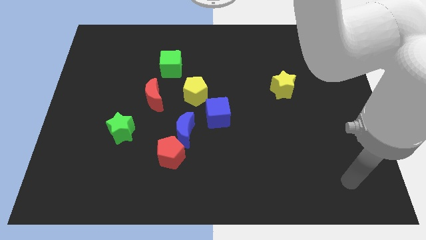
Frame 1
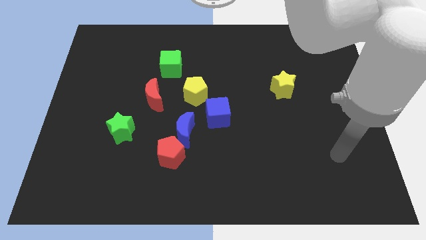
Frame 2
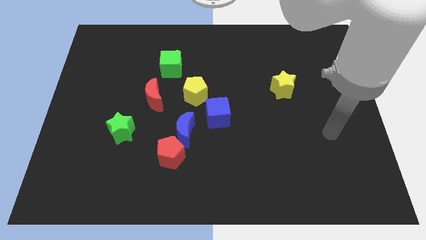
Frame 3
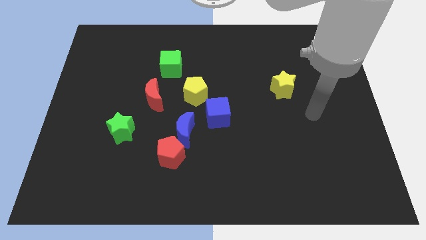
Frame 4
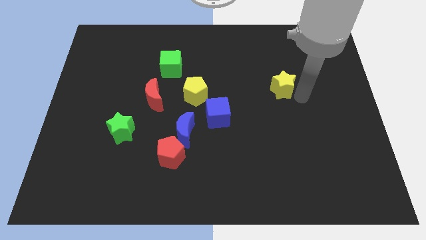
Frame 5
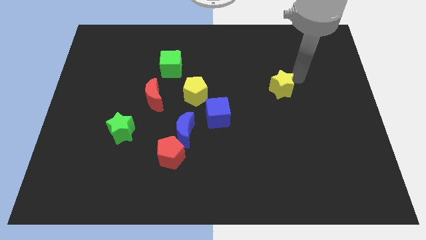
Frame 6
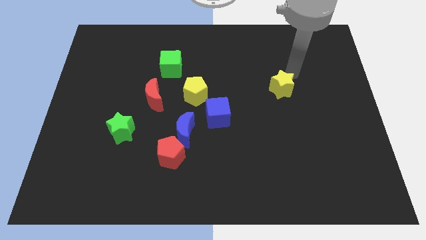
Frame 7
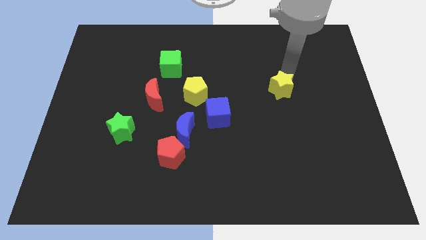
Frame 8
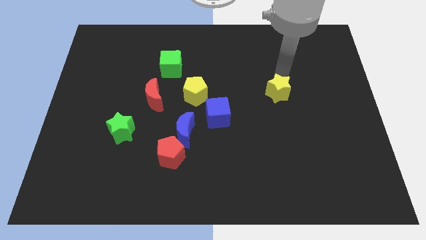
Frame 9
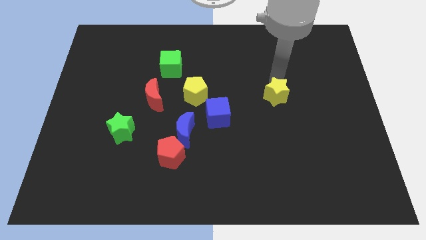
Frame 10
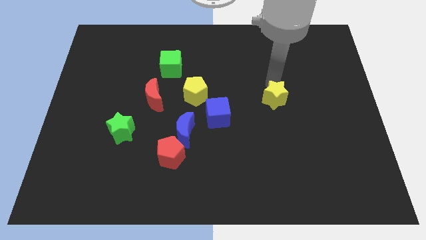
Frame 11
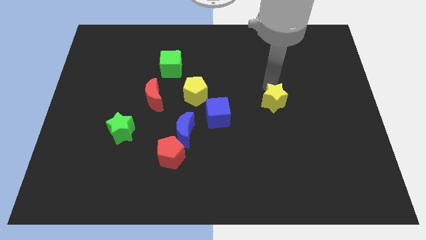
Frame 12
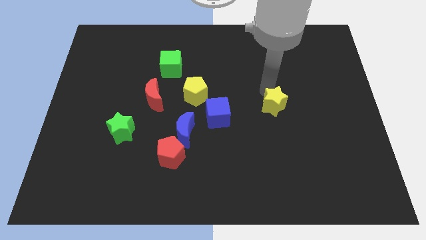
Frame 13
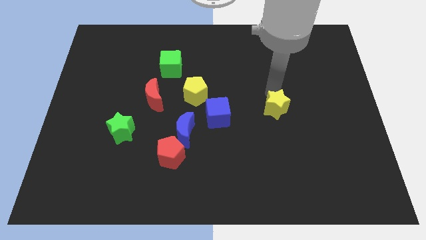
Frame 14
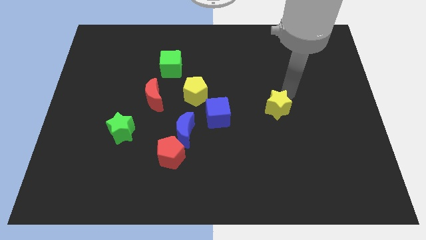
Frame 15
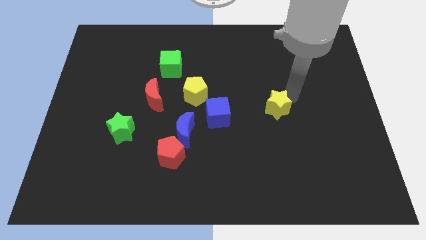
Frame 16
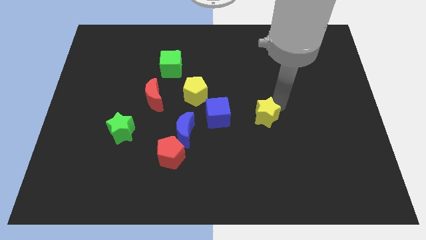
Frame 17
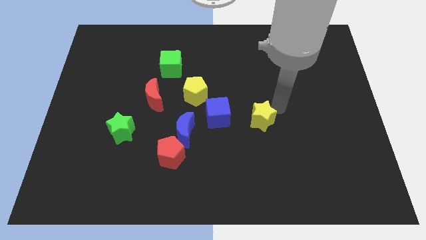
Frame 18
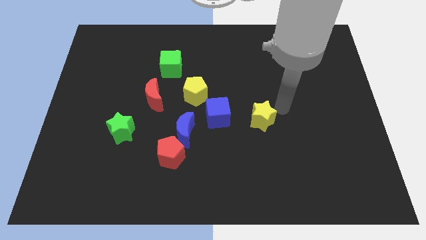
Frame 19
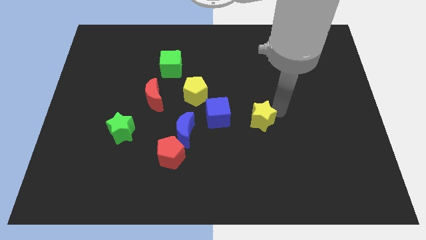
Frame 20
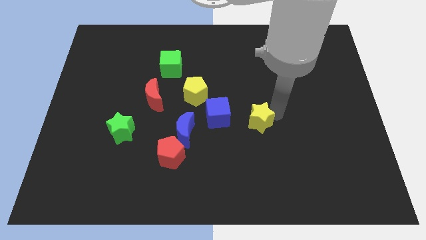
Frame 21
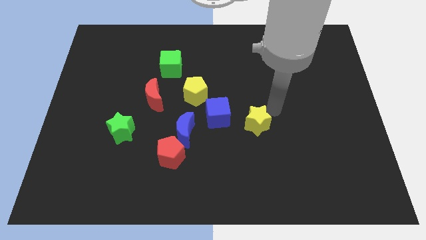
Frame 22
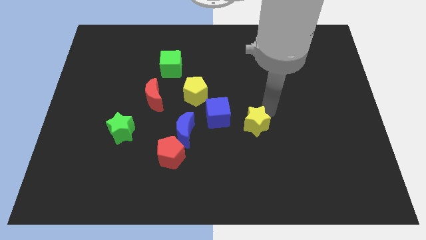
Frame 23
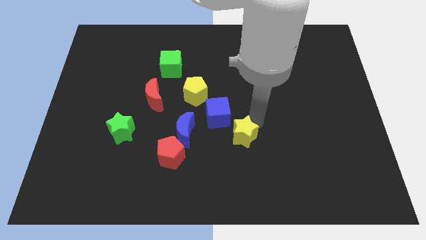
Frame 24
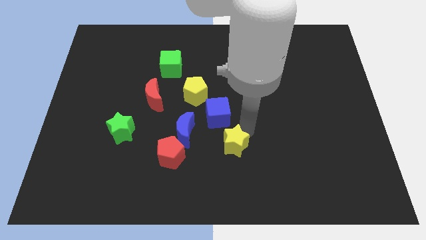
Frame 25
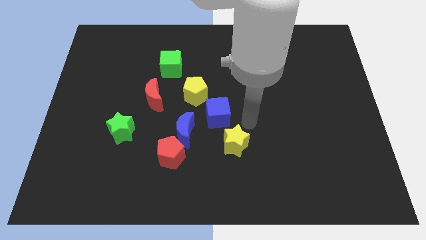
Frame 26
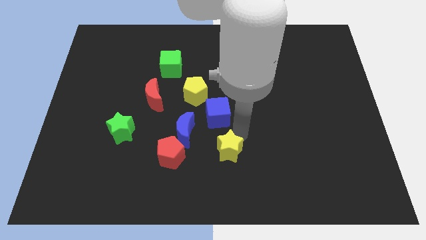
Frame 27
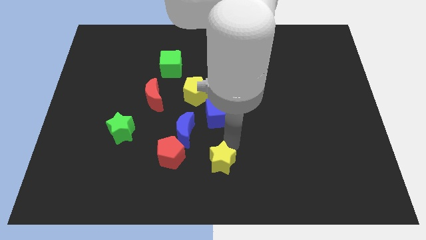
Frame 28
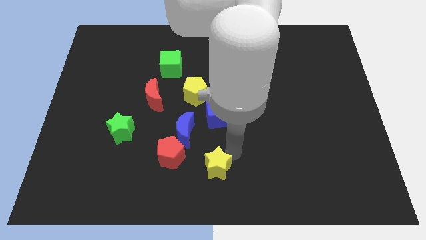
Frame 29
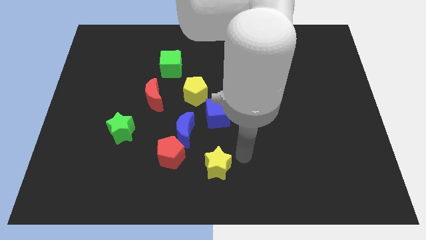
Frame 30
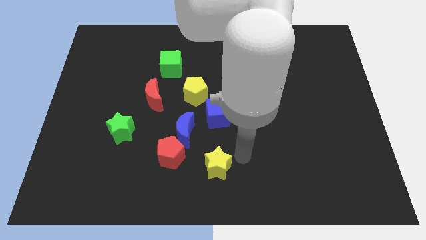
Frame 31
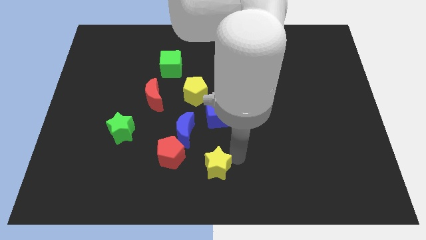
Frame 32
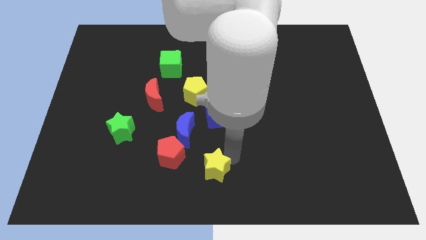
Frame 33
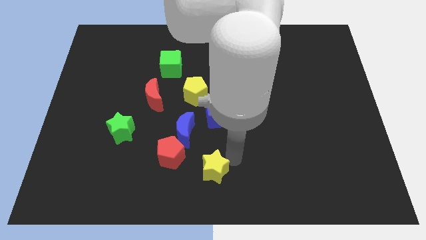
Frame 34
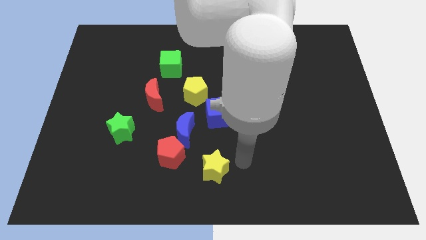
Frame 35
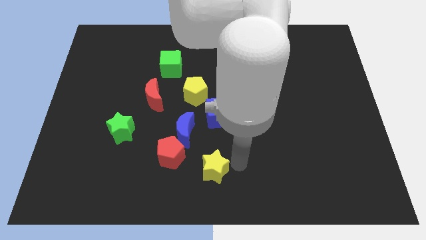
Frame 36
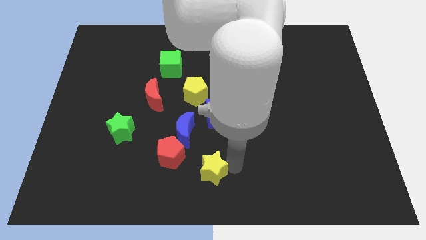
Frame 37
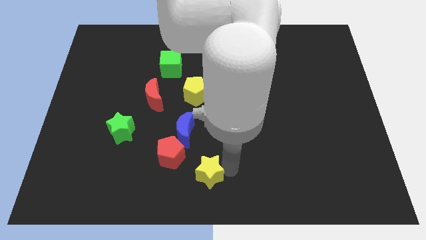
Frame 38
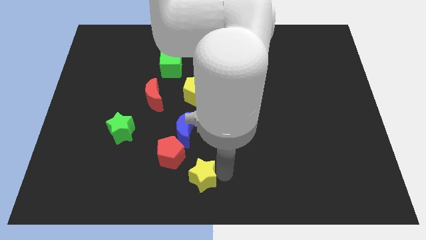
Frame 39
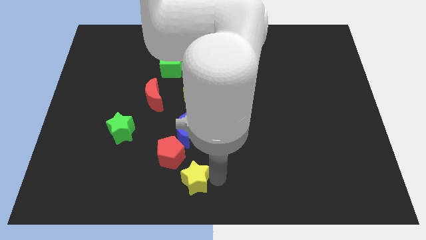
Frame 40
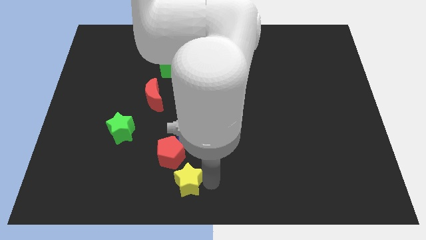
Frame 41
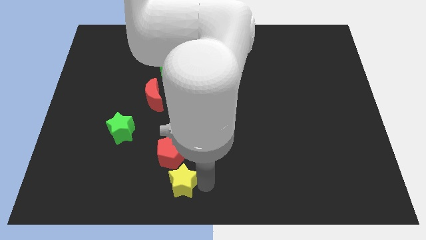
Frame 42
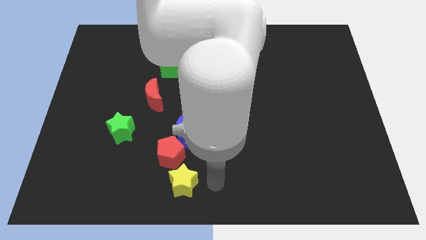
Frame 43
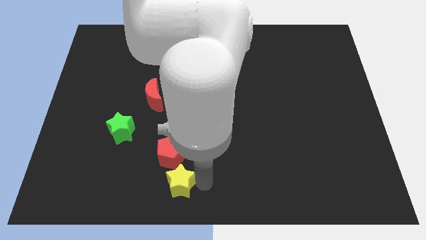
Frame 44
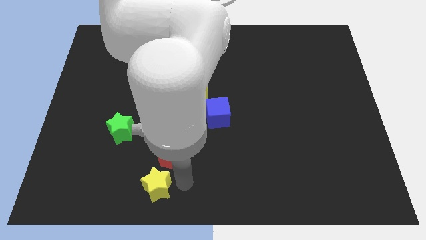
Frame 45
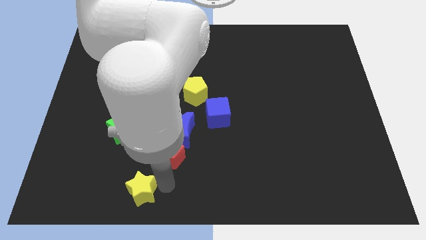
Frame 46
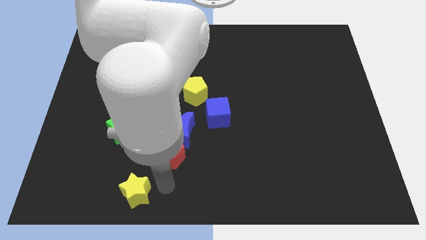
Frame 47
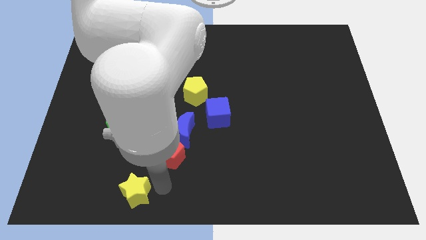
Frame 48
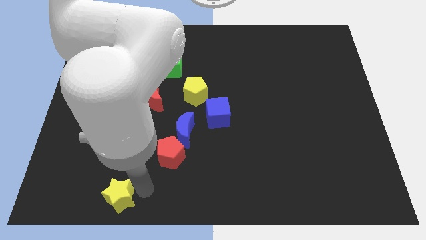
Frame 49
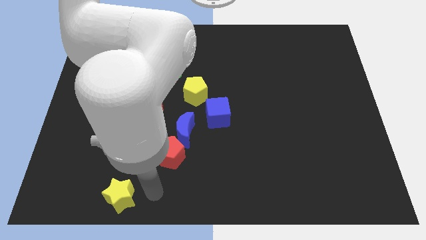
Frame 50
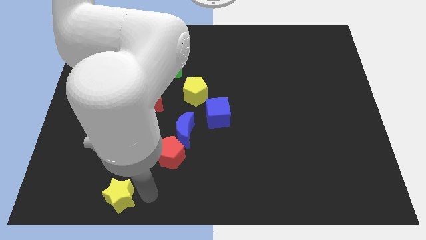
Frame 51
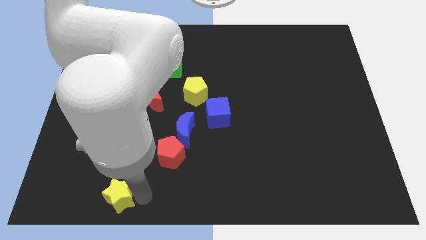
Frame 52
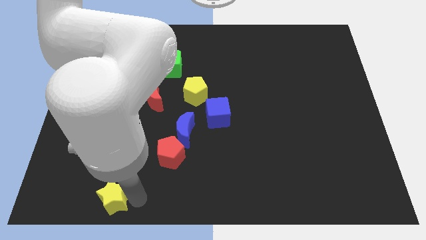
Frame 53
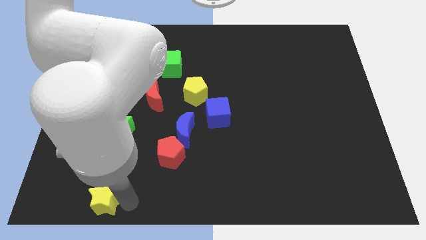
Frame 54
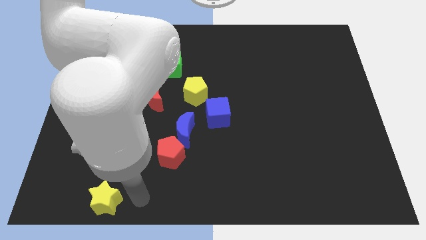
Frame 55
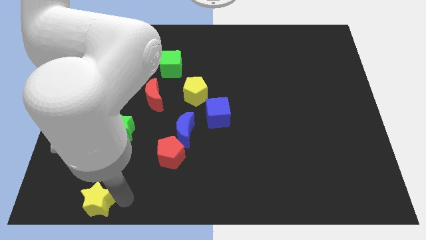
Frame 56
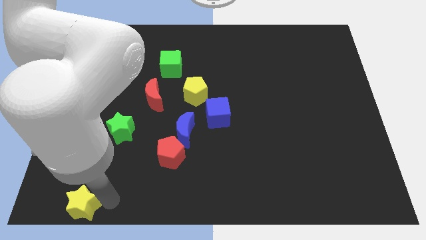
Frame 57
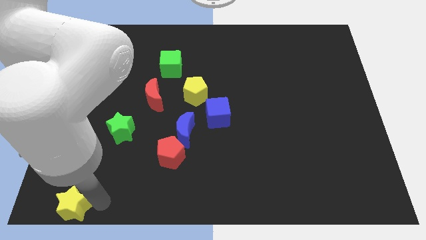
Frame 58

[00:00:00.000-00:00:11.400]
push the yellow star to the bottom left of the board

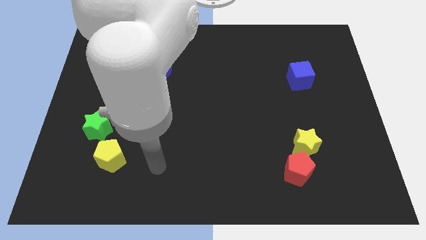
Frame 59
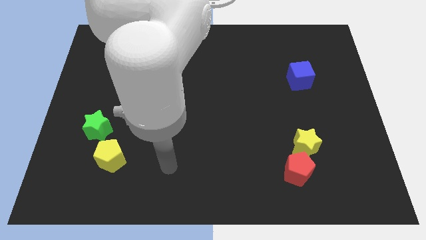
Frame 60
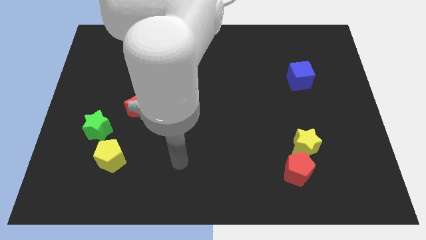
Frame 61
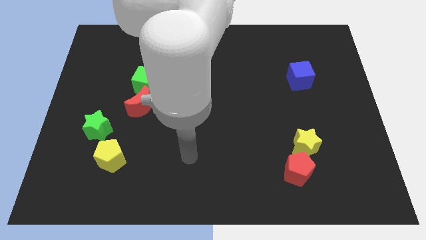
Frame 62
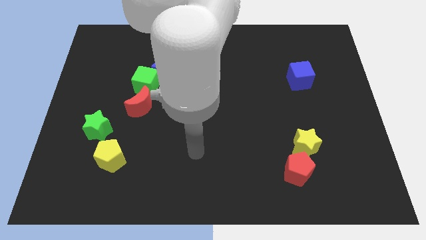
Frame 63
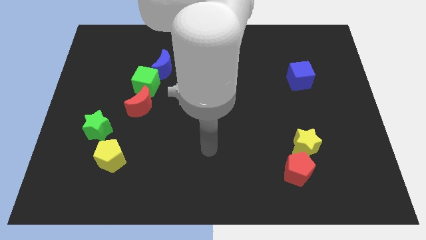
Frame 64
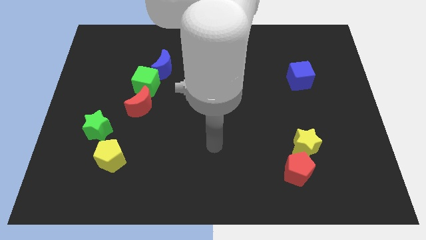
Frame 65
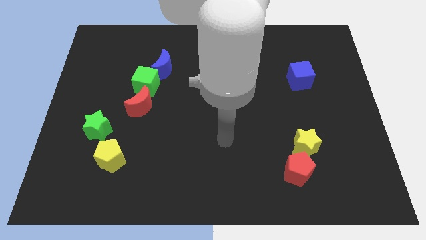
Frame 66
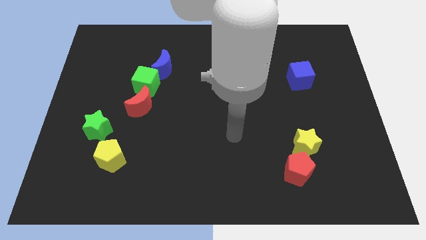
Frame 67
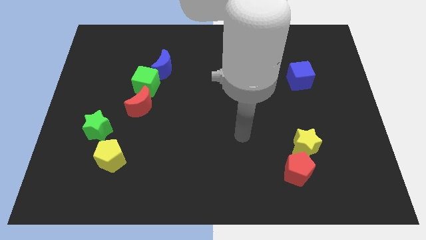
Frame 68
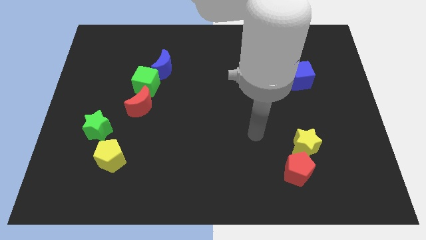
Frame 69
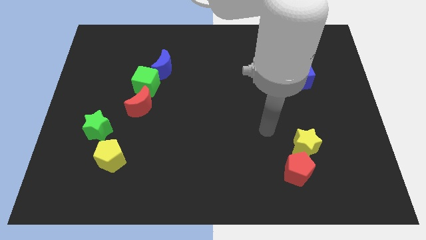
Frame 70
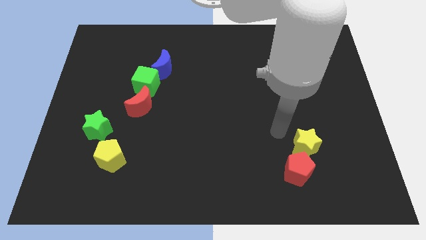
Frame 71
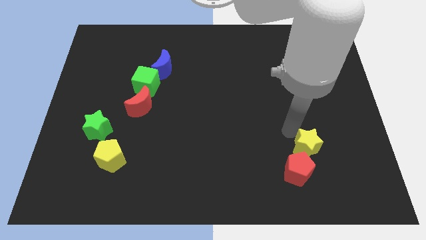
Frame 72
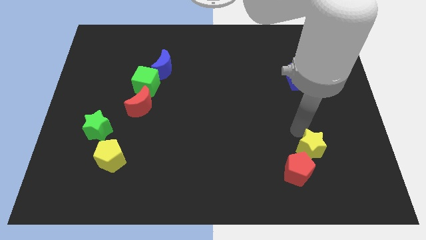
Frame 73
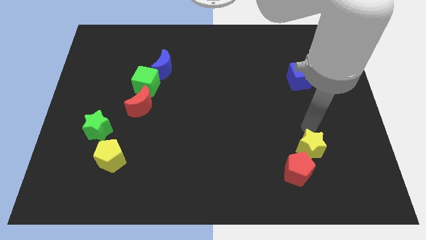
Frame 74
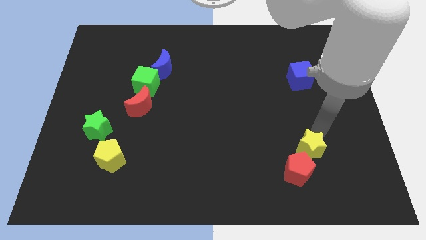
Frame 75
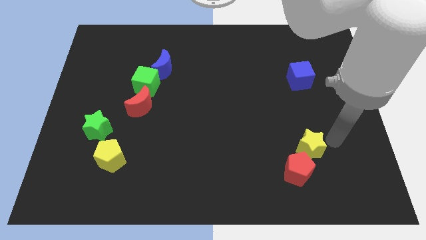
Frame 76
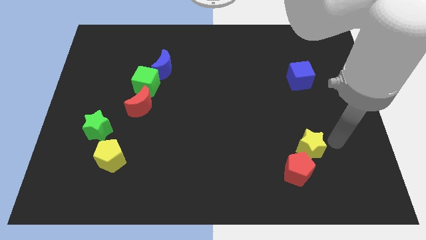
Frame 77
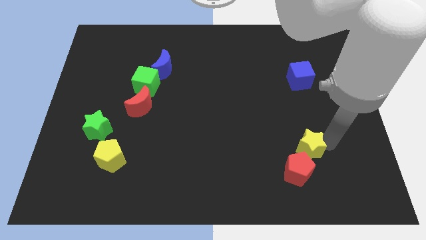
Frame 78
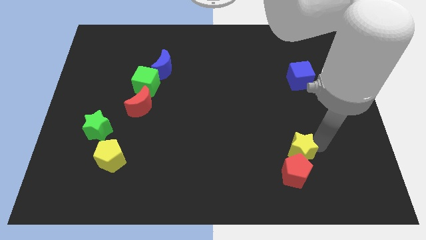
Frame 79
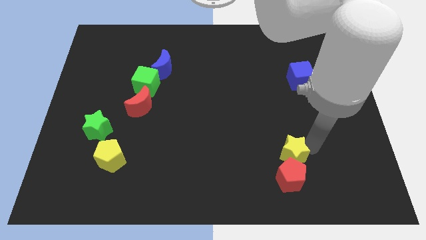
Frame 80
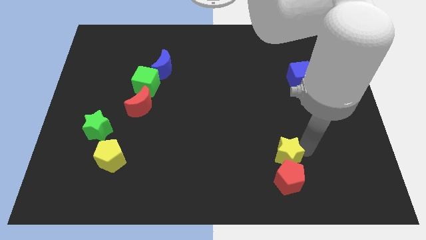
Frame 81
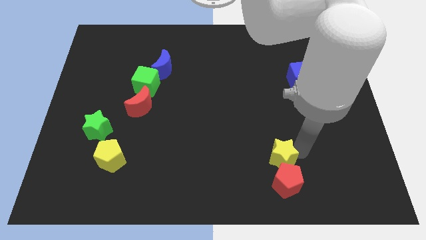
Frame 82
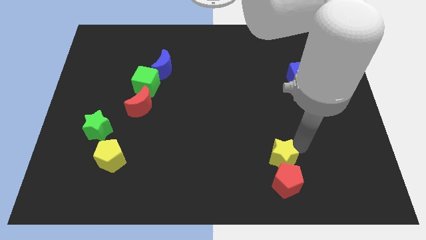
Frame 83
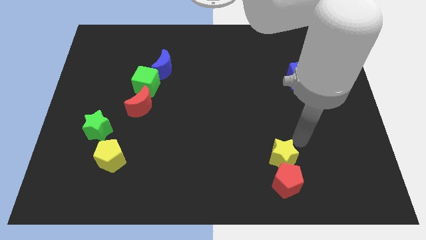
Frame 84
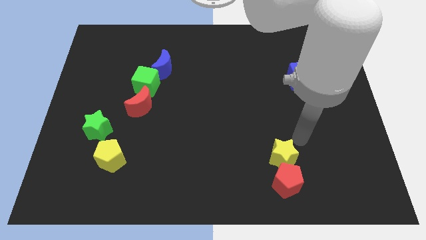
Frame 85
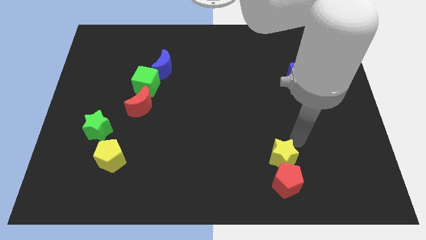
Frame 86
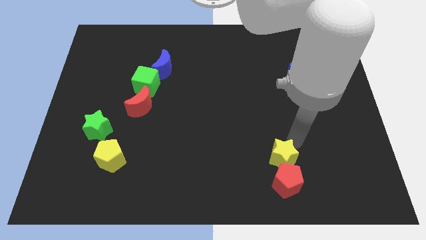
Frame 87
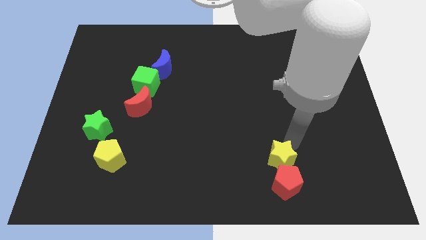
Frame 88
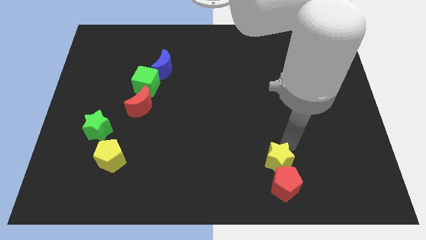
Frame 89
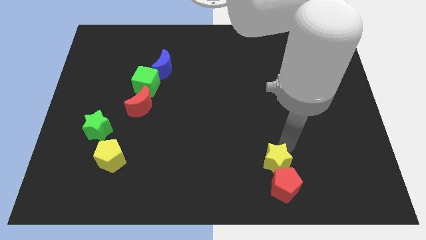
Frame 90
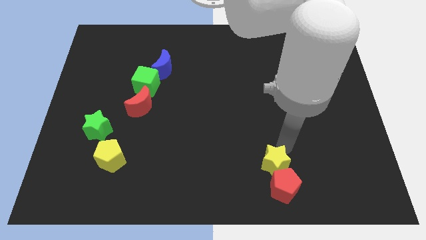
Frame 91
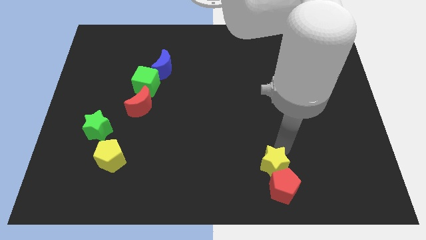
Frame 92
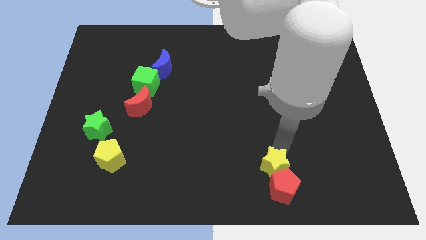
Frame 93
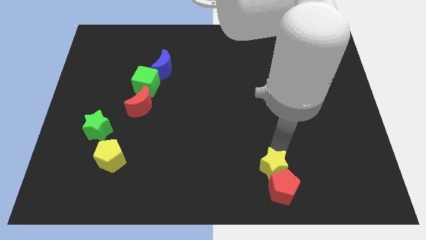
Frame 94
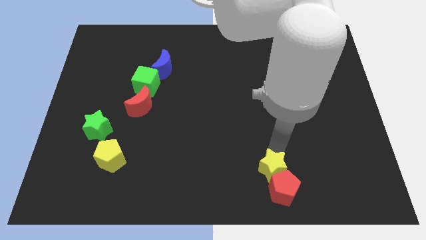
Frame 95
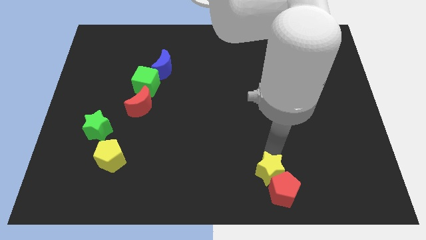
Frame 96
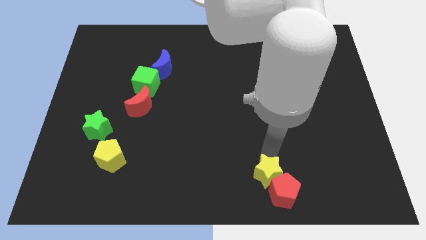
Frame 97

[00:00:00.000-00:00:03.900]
move the yellow star to the bottom
